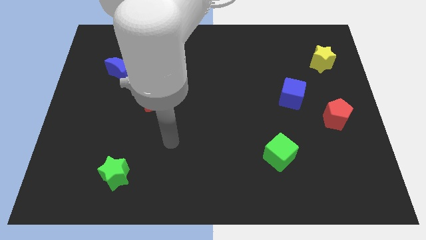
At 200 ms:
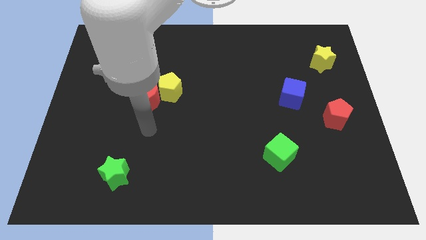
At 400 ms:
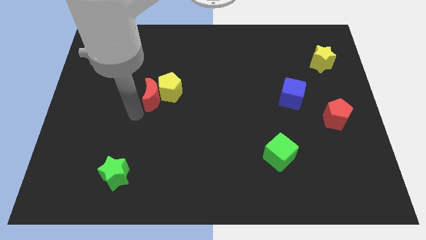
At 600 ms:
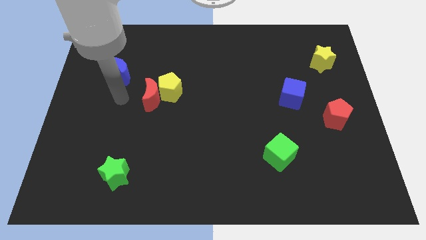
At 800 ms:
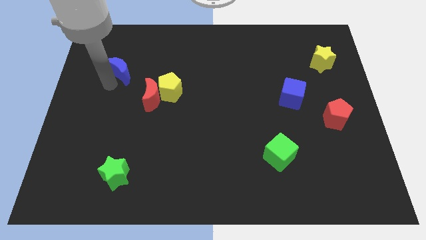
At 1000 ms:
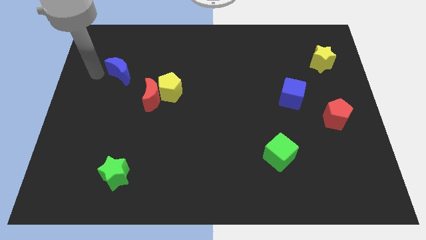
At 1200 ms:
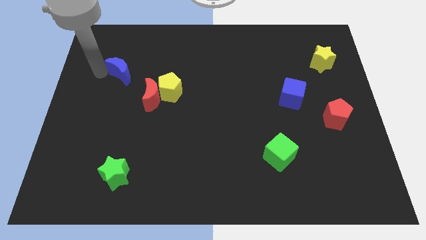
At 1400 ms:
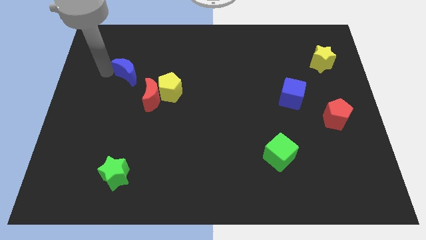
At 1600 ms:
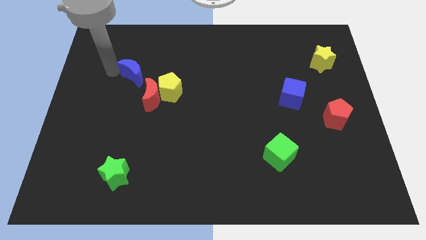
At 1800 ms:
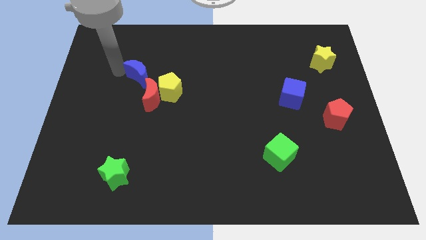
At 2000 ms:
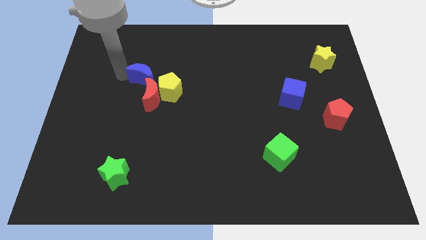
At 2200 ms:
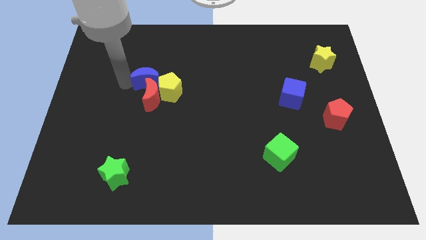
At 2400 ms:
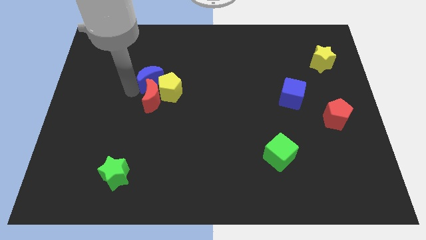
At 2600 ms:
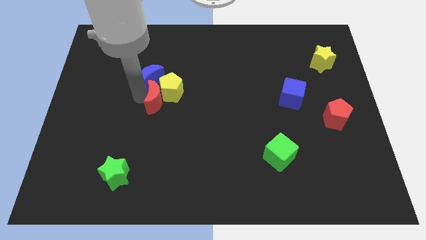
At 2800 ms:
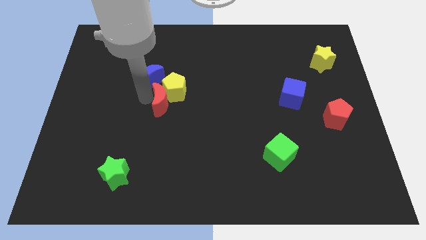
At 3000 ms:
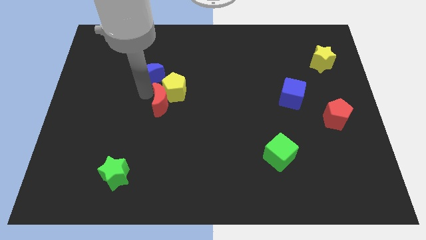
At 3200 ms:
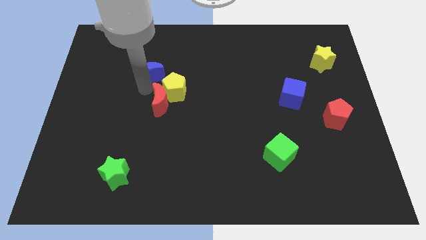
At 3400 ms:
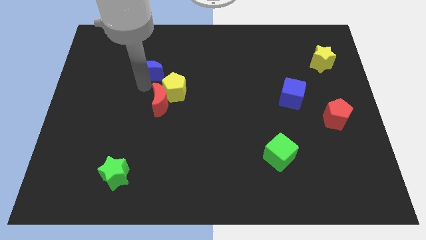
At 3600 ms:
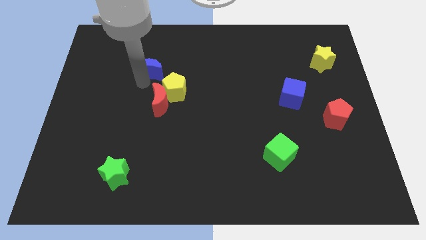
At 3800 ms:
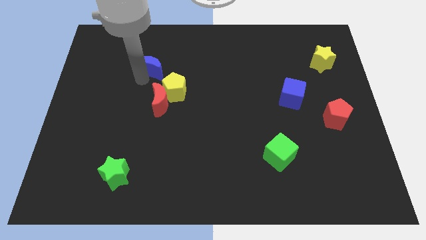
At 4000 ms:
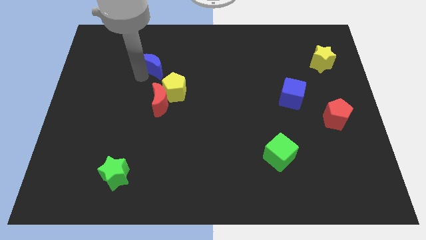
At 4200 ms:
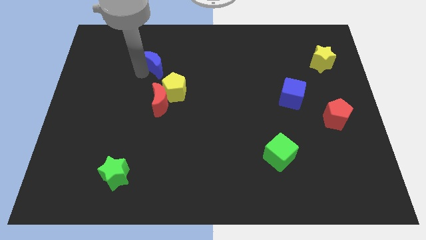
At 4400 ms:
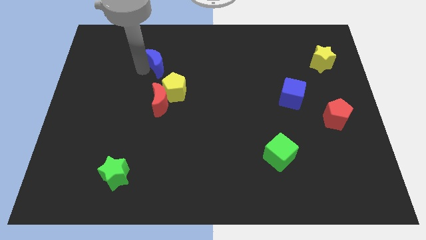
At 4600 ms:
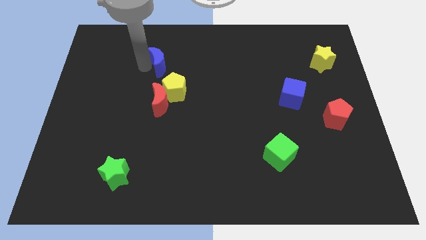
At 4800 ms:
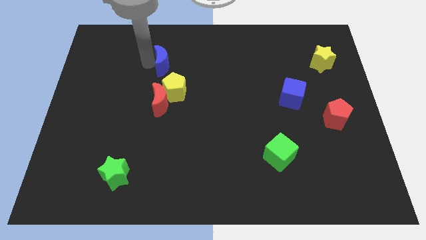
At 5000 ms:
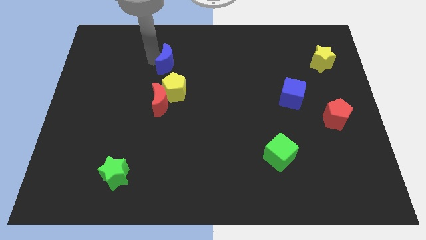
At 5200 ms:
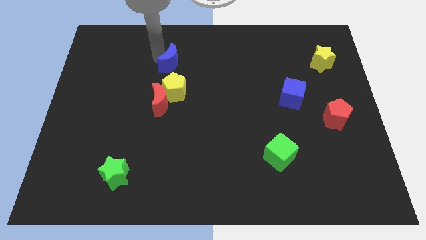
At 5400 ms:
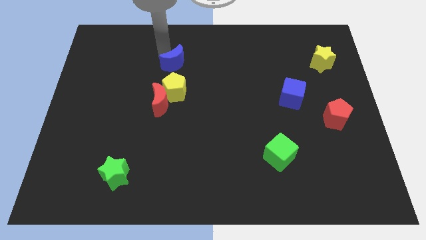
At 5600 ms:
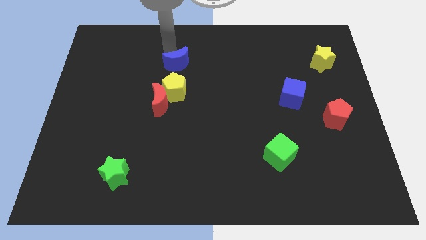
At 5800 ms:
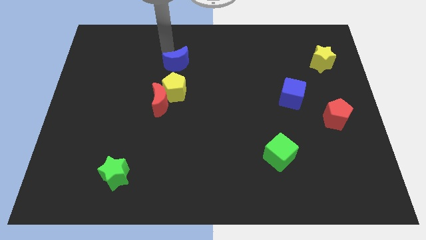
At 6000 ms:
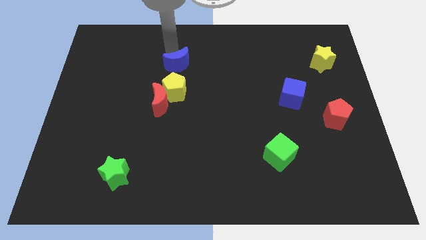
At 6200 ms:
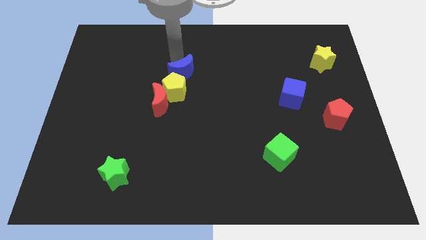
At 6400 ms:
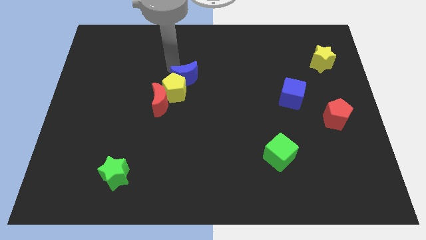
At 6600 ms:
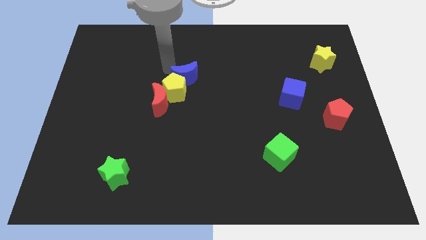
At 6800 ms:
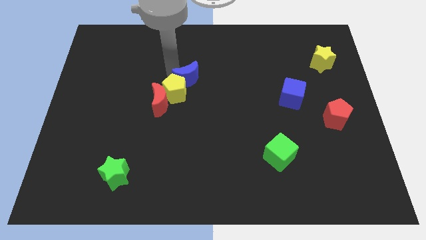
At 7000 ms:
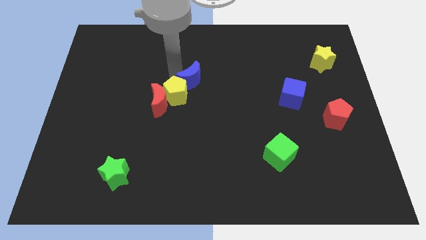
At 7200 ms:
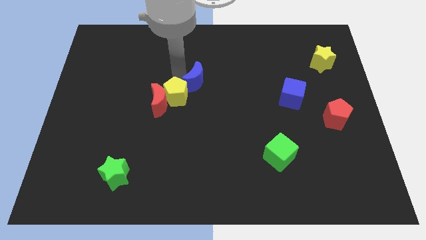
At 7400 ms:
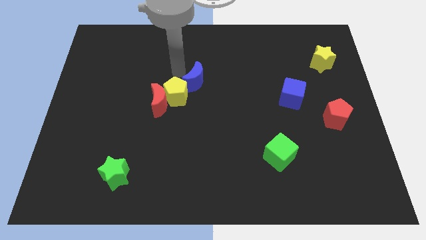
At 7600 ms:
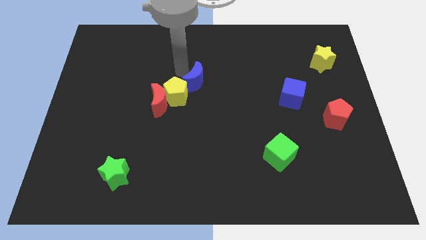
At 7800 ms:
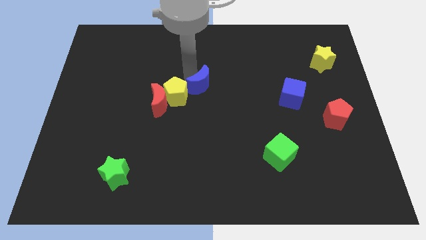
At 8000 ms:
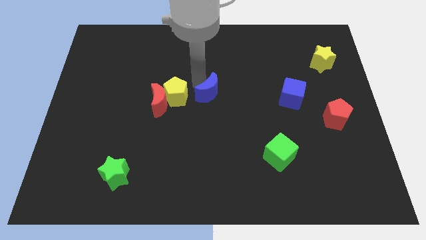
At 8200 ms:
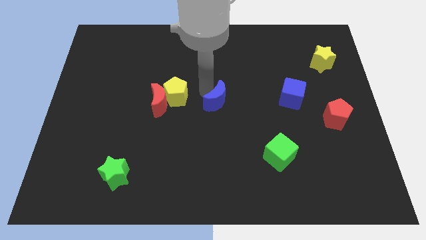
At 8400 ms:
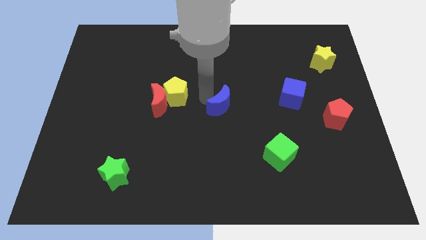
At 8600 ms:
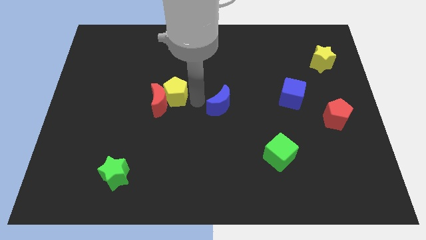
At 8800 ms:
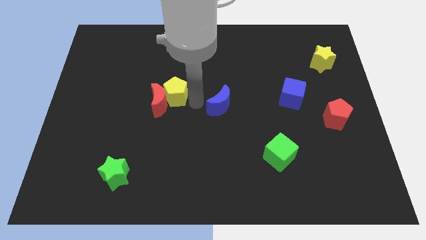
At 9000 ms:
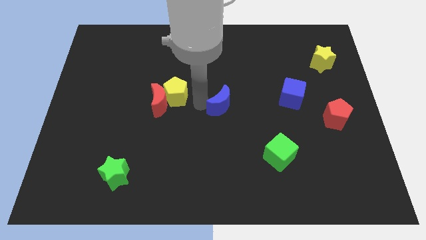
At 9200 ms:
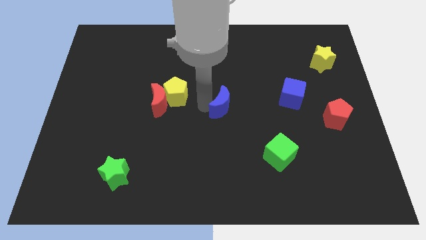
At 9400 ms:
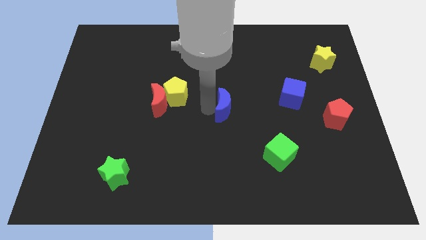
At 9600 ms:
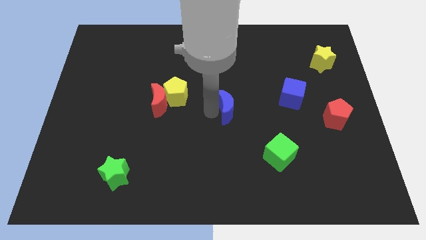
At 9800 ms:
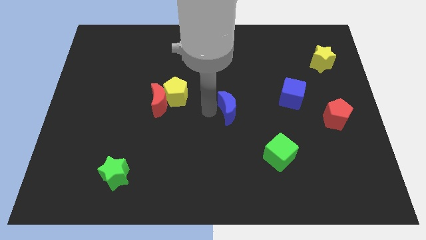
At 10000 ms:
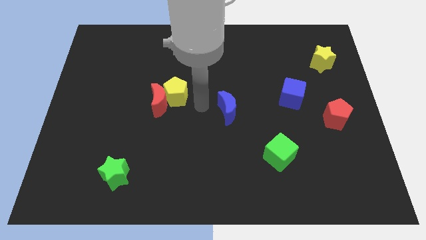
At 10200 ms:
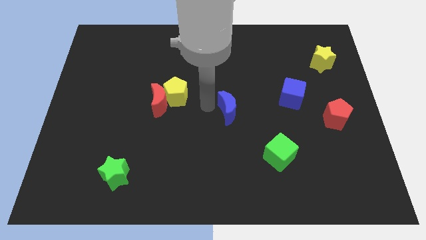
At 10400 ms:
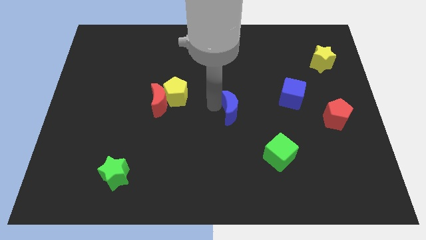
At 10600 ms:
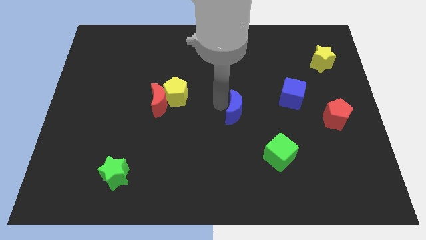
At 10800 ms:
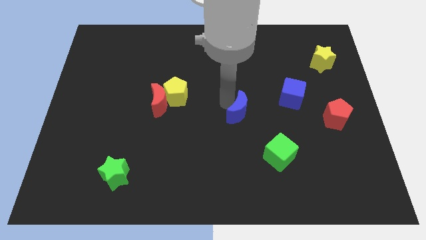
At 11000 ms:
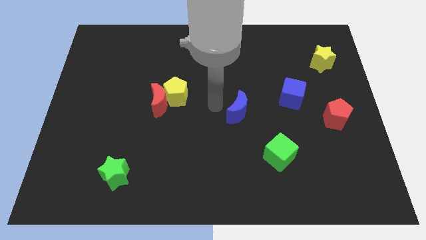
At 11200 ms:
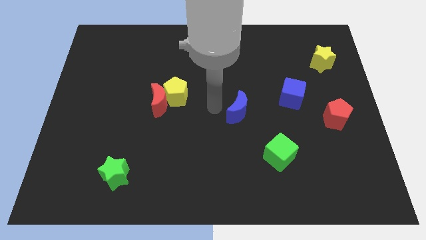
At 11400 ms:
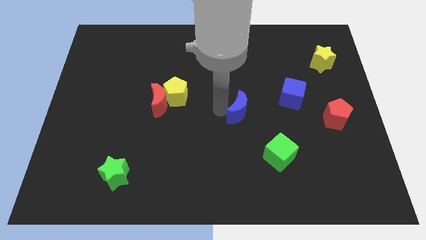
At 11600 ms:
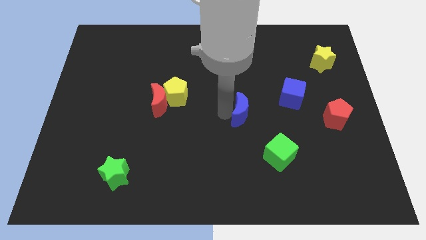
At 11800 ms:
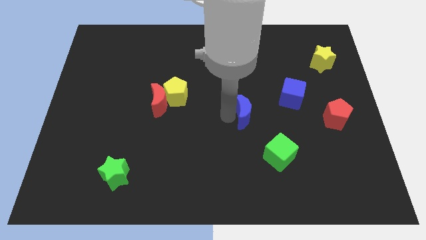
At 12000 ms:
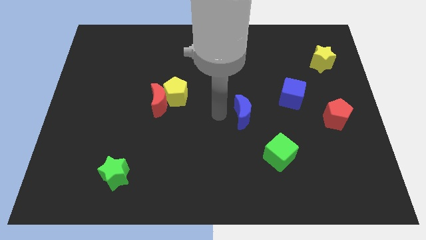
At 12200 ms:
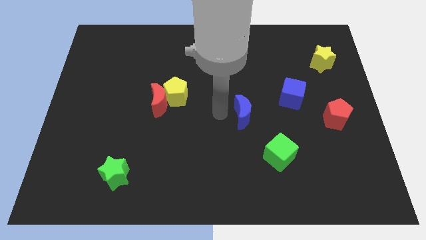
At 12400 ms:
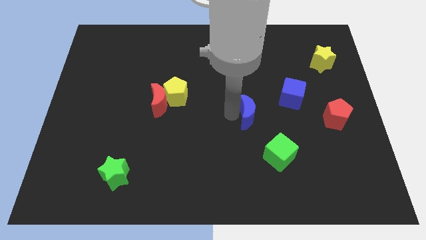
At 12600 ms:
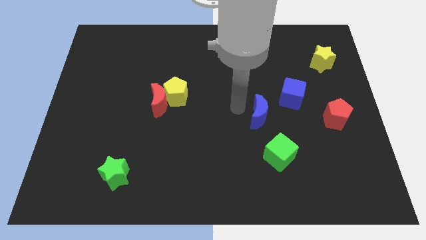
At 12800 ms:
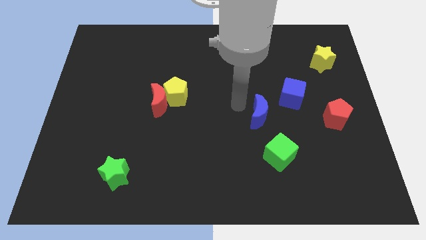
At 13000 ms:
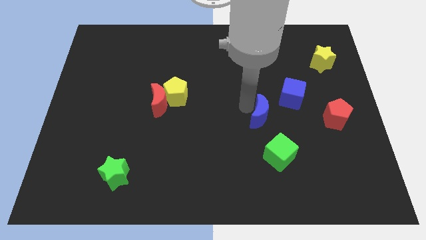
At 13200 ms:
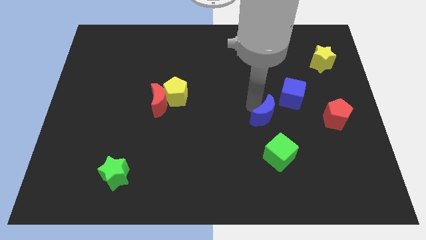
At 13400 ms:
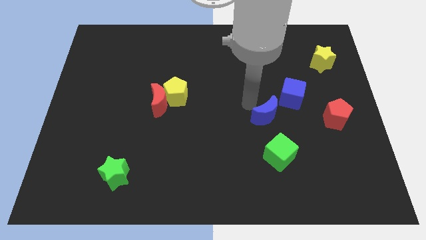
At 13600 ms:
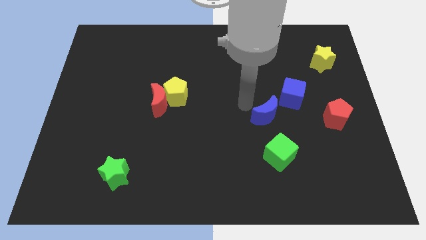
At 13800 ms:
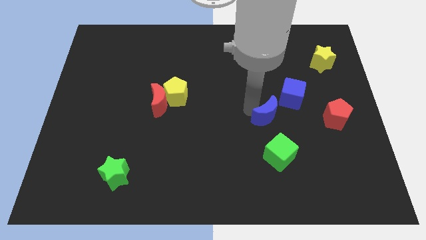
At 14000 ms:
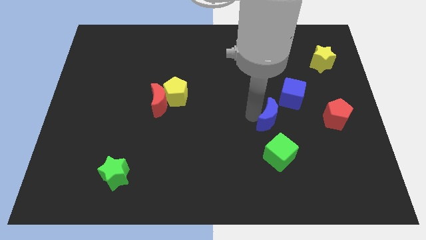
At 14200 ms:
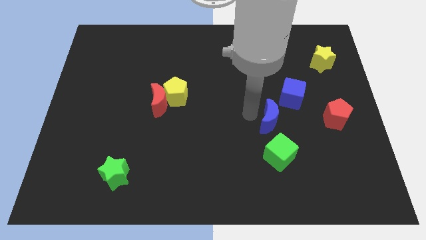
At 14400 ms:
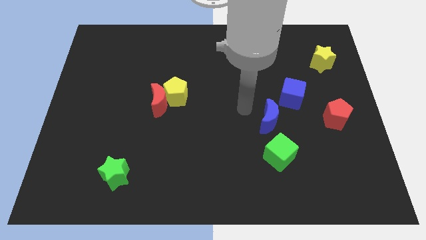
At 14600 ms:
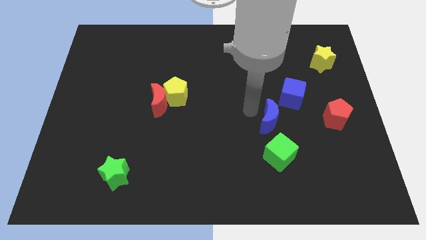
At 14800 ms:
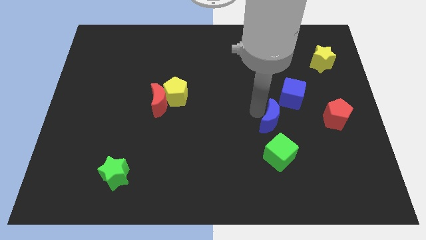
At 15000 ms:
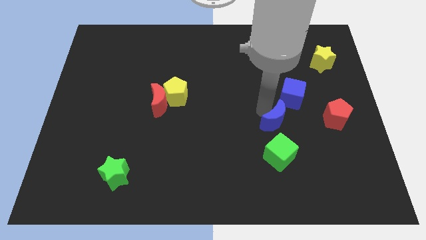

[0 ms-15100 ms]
move the blue moon to the bottom of the blue cube
